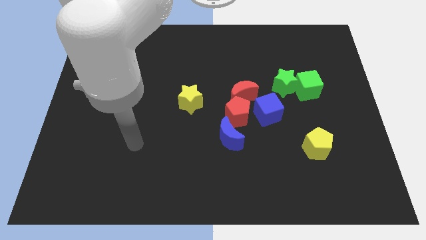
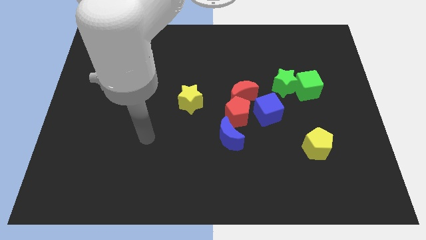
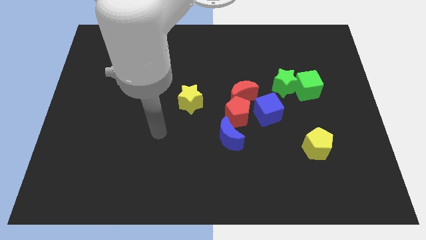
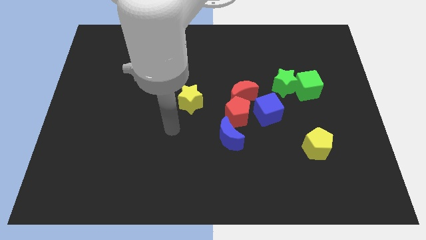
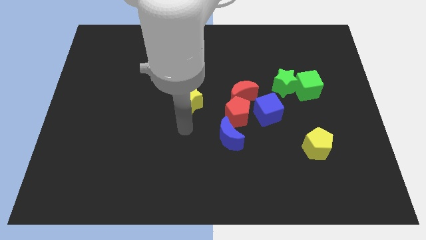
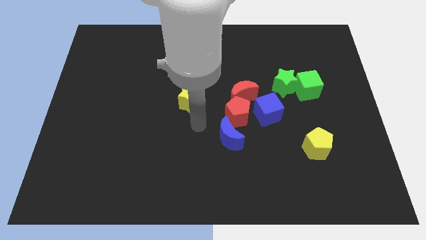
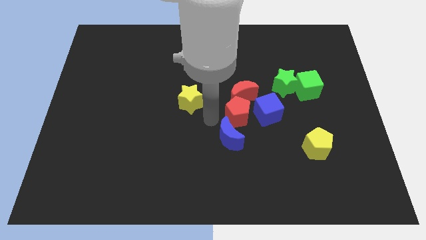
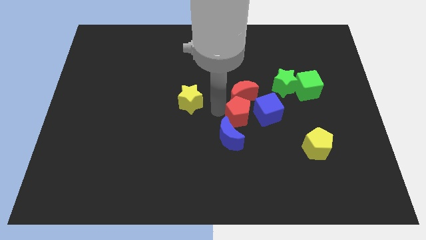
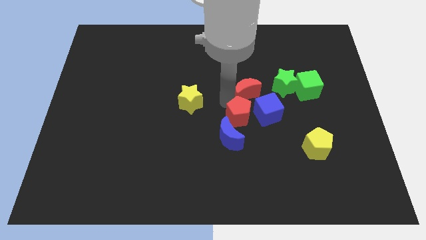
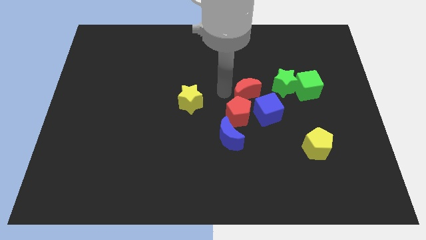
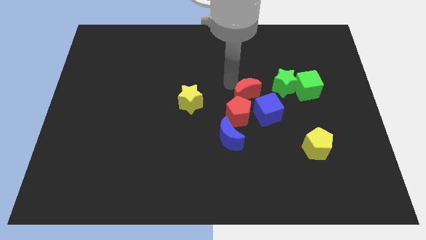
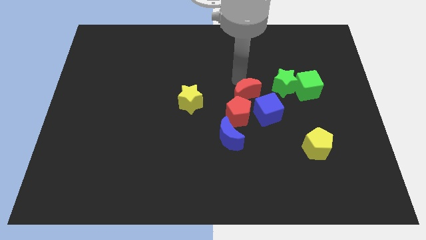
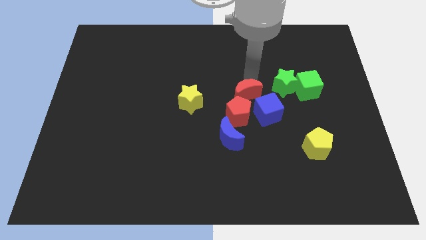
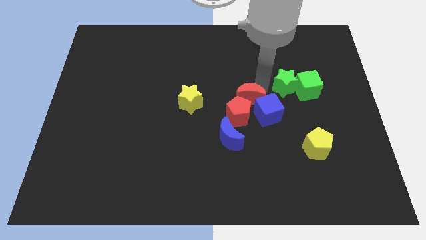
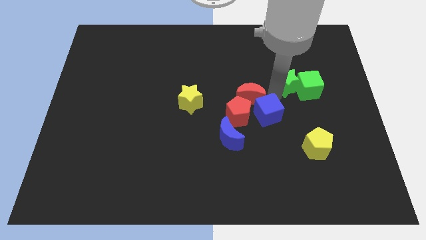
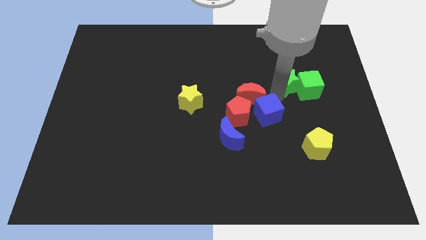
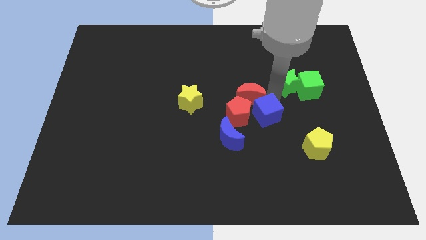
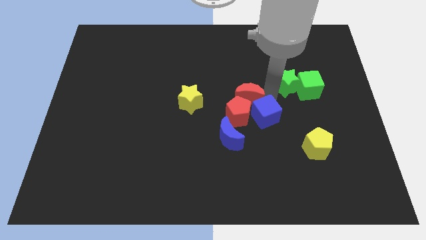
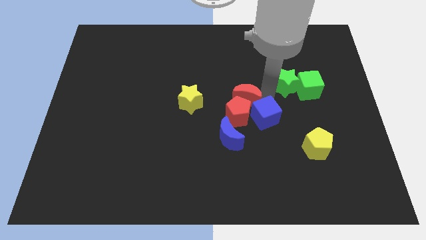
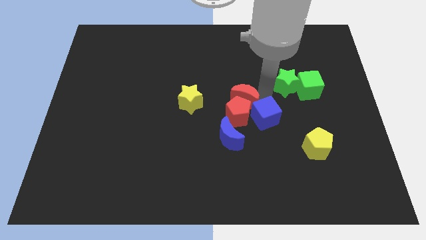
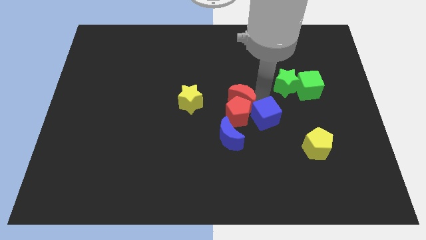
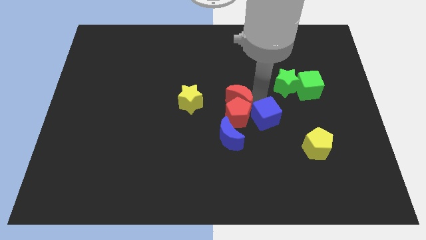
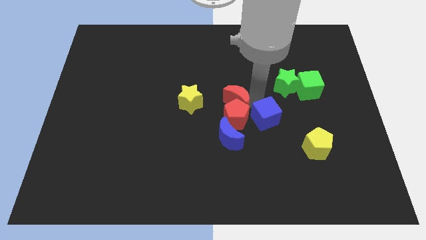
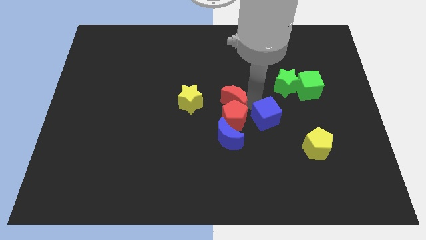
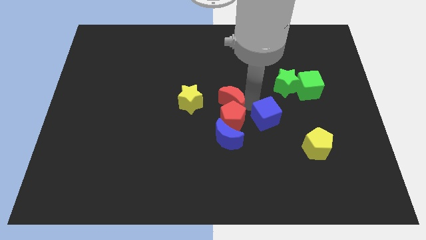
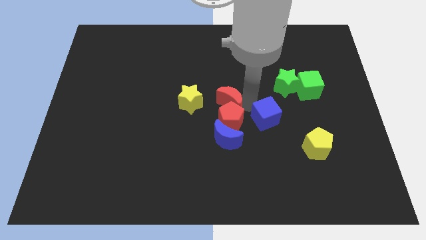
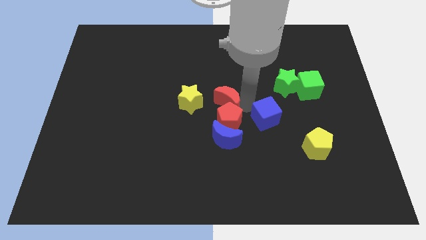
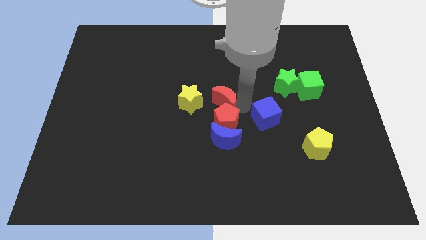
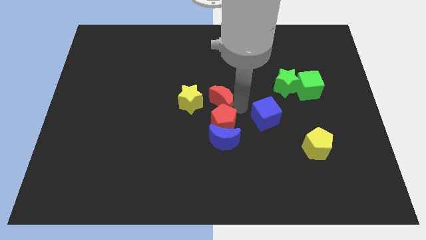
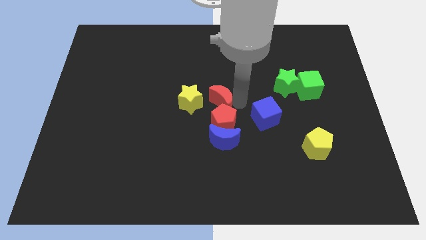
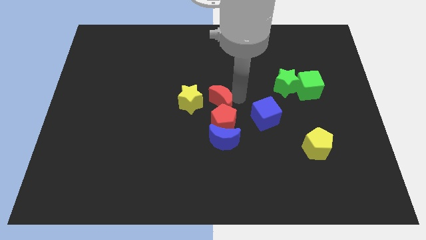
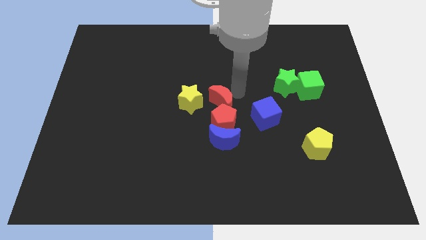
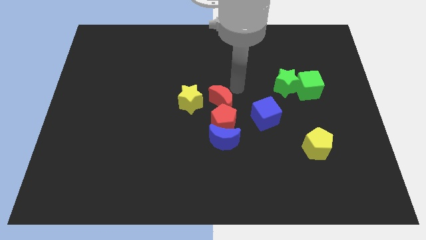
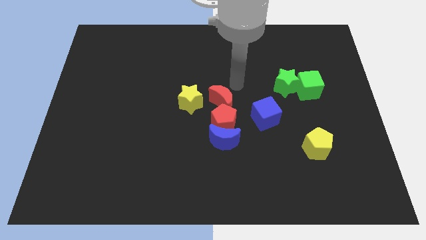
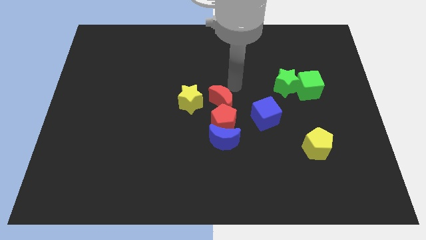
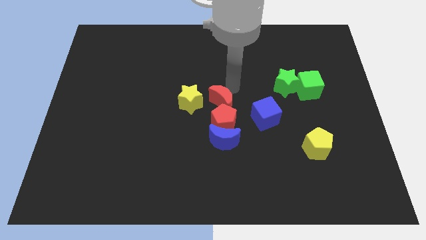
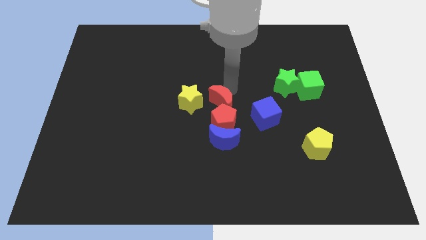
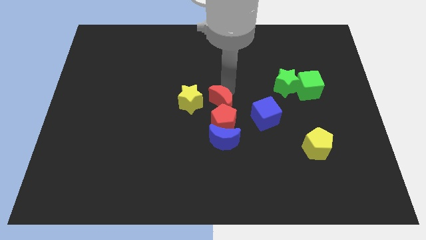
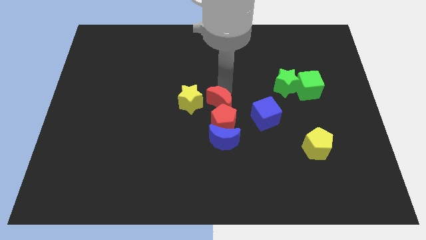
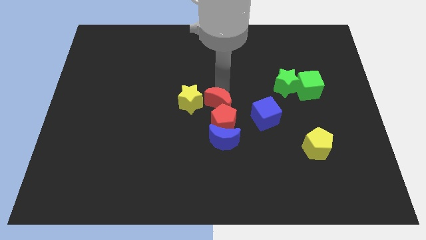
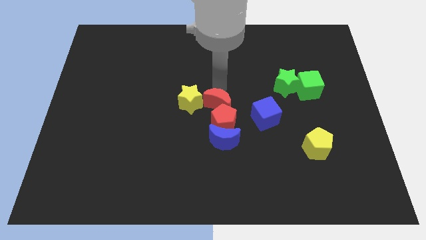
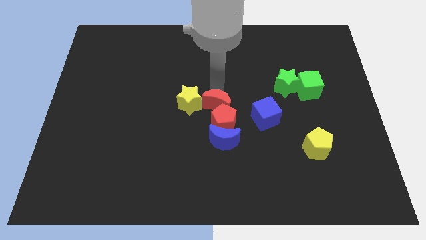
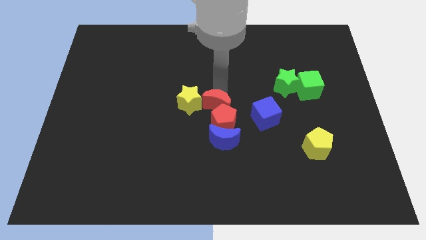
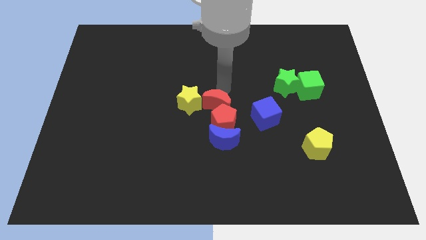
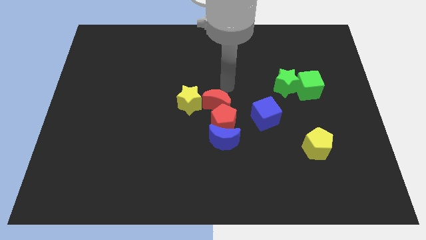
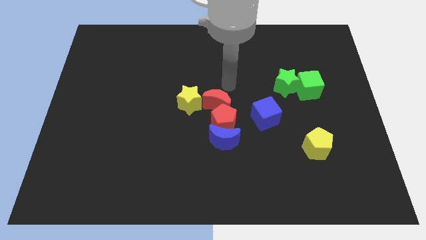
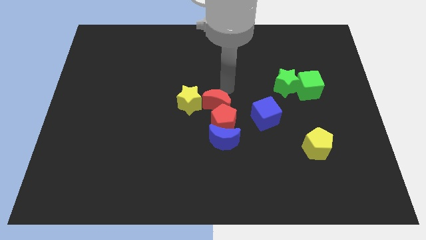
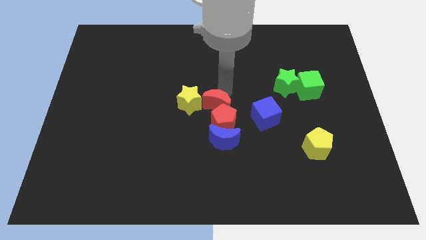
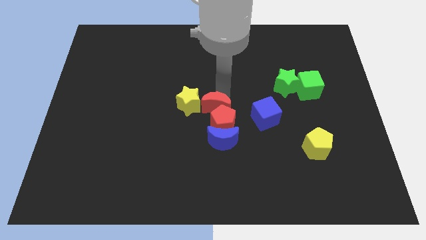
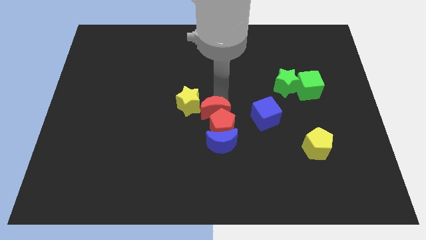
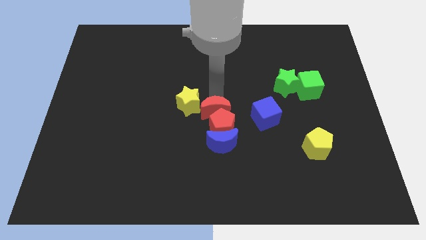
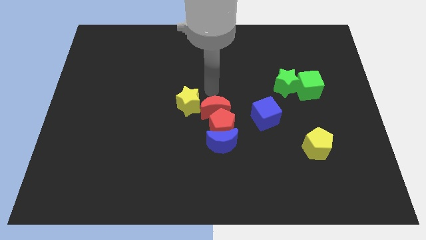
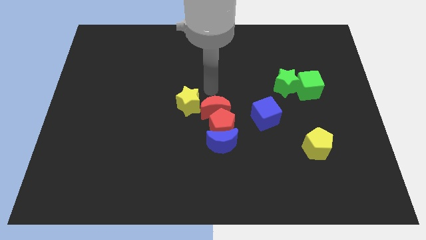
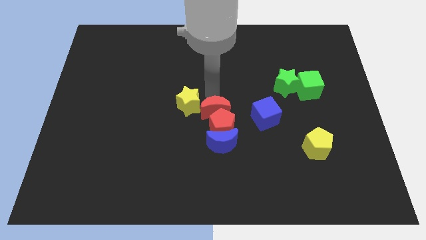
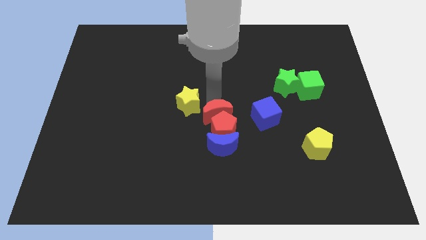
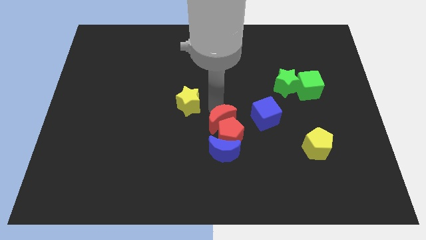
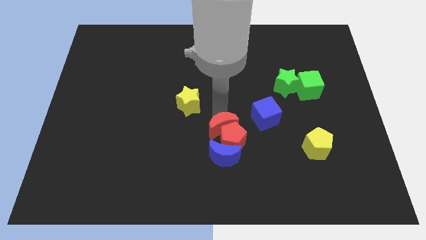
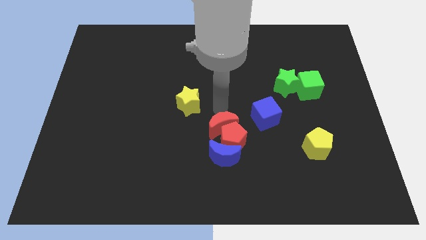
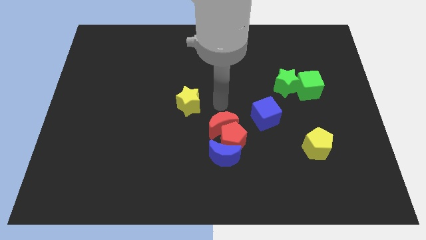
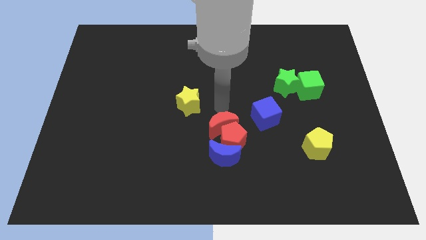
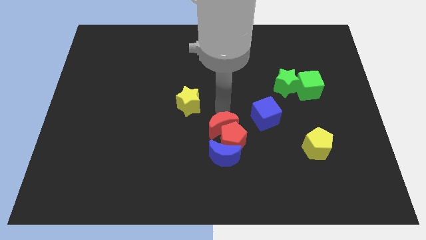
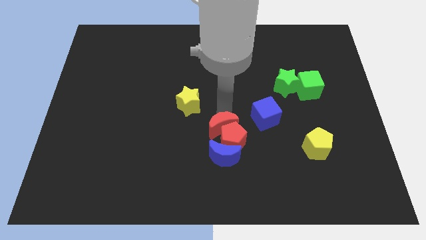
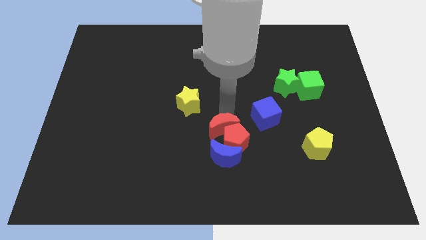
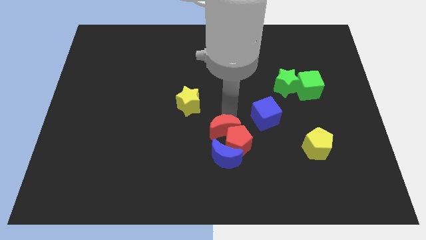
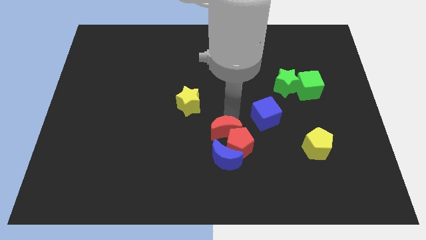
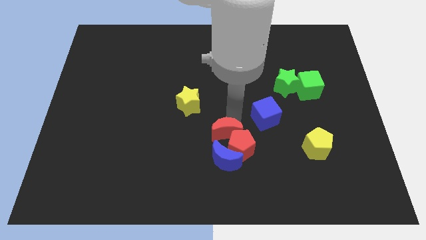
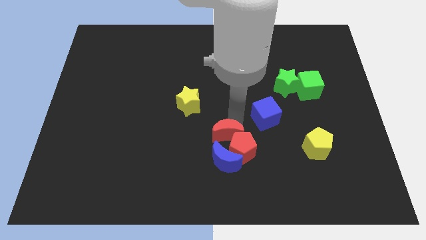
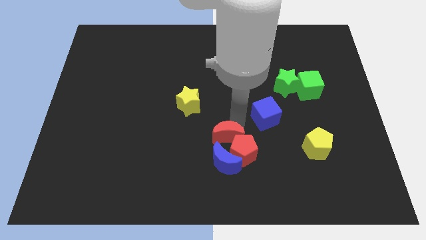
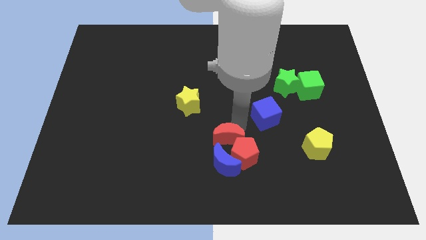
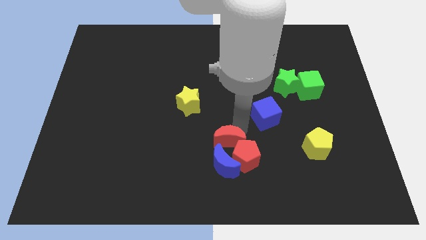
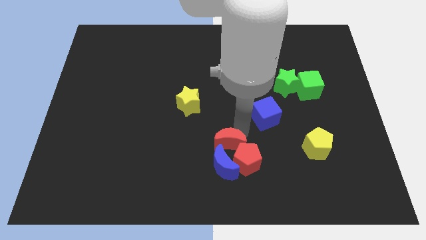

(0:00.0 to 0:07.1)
move the red moon next to the blue moon
